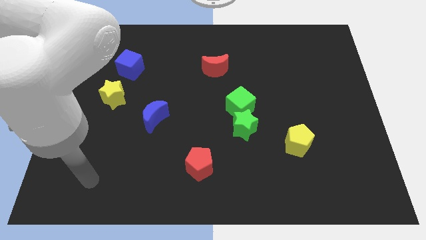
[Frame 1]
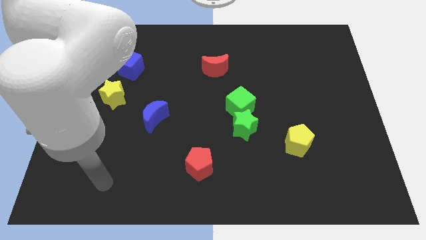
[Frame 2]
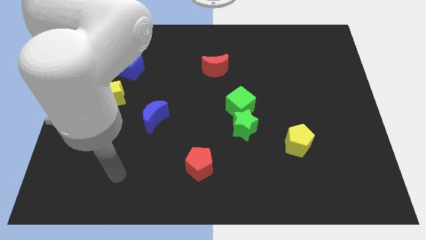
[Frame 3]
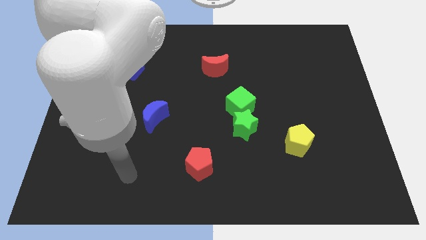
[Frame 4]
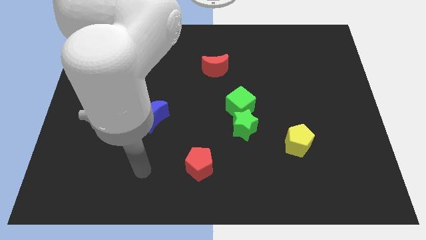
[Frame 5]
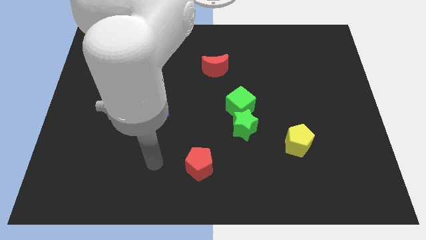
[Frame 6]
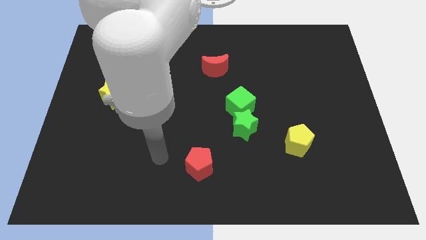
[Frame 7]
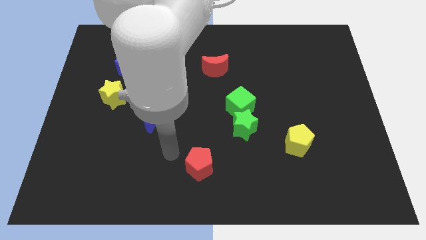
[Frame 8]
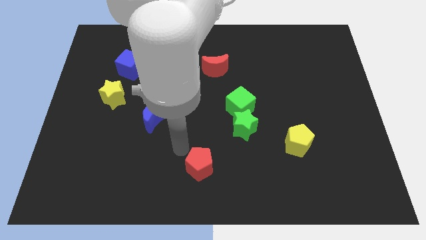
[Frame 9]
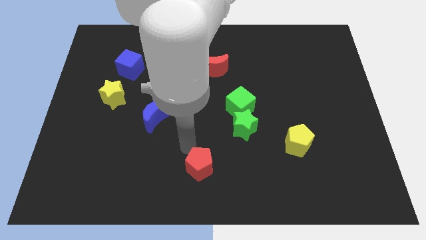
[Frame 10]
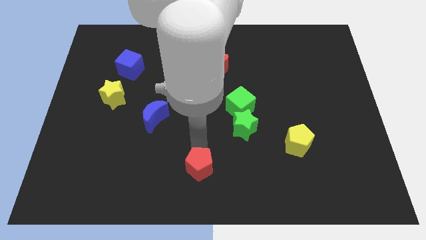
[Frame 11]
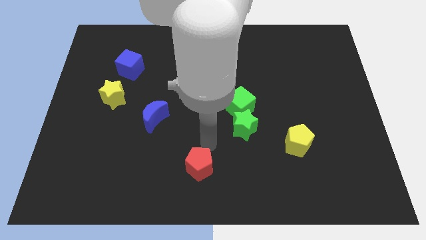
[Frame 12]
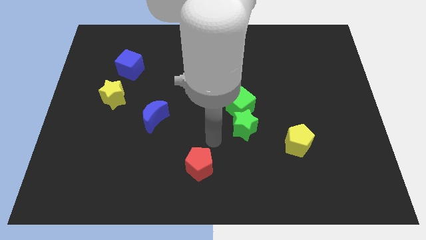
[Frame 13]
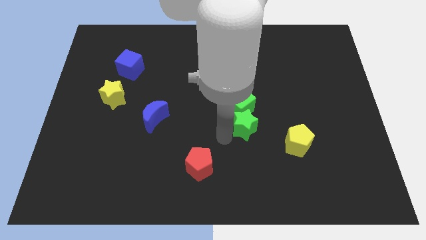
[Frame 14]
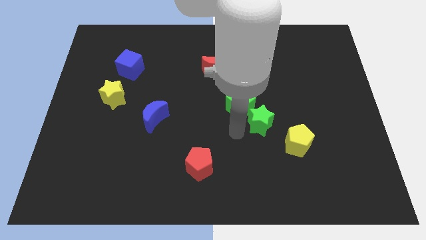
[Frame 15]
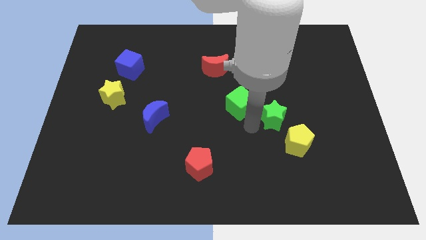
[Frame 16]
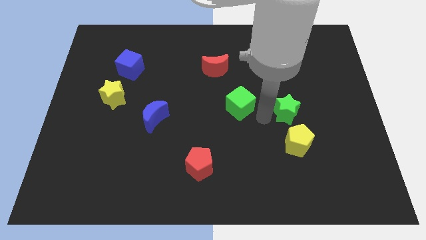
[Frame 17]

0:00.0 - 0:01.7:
separate the green cube from the green star

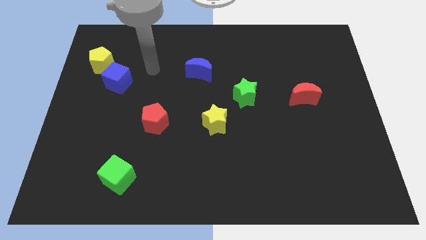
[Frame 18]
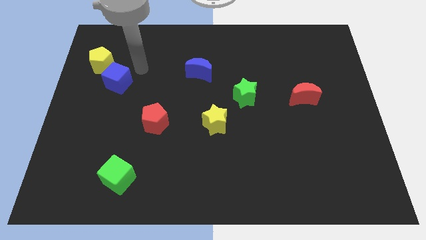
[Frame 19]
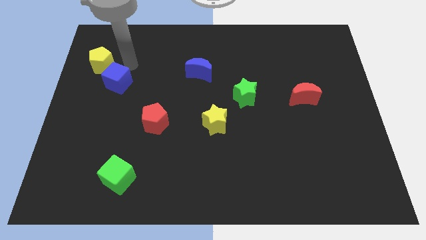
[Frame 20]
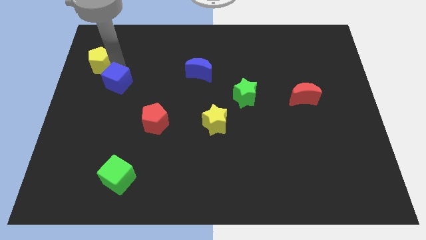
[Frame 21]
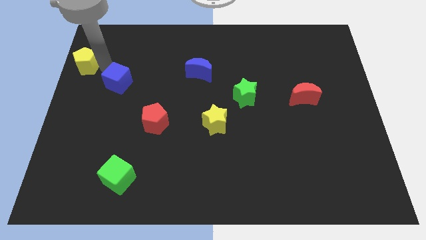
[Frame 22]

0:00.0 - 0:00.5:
pull the blue cube apart from the yellow pentagon

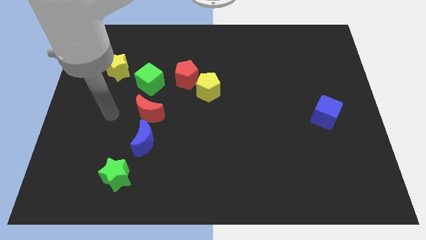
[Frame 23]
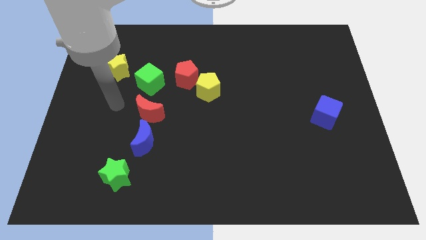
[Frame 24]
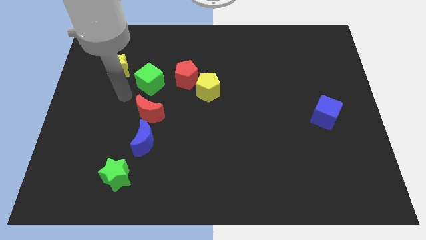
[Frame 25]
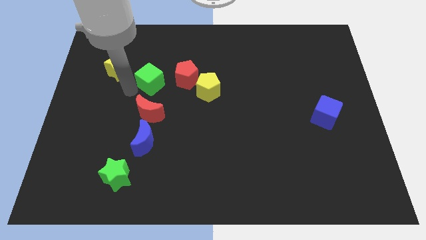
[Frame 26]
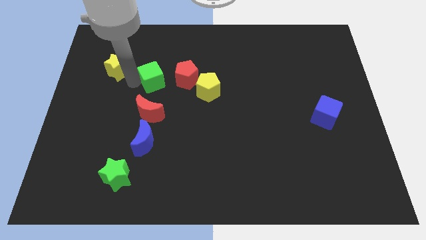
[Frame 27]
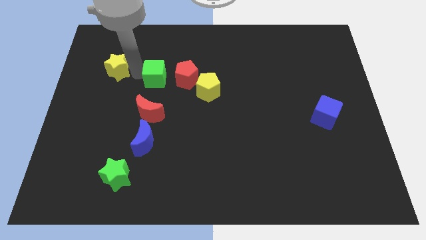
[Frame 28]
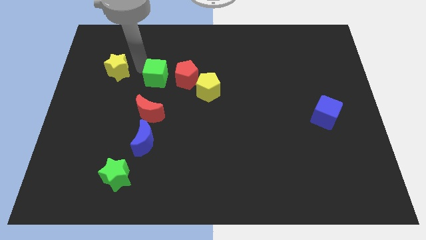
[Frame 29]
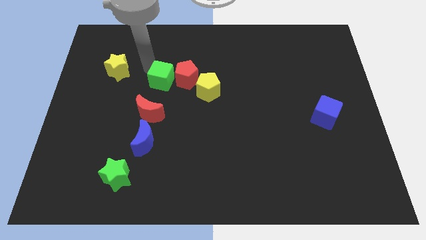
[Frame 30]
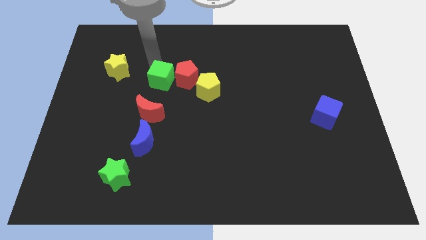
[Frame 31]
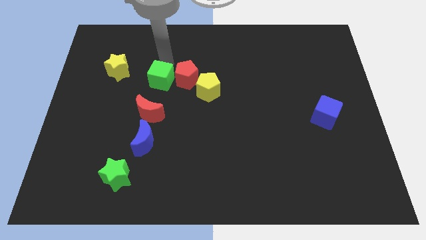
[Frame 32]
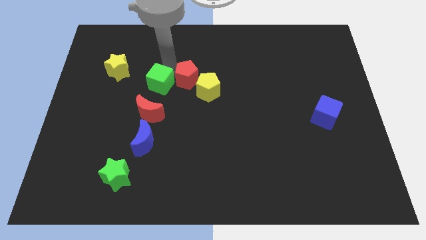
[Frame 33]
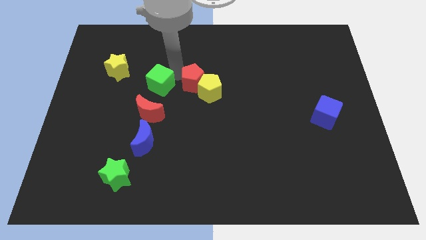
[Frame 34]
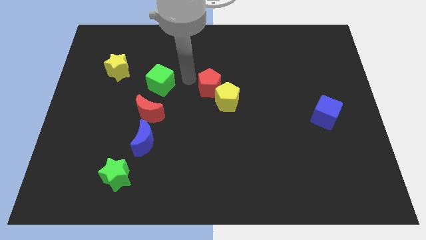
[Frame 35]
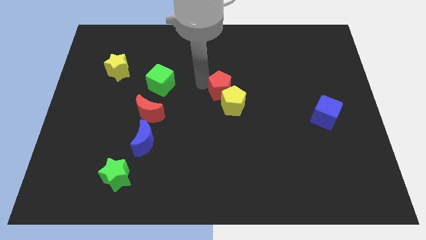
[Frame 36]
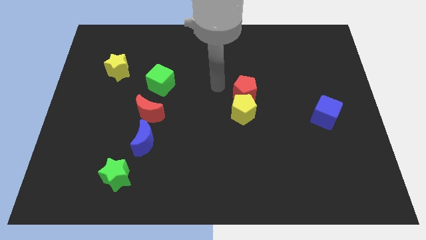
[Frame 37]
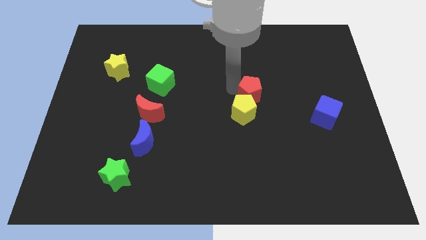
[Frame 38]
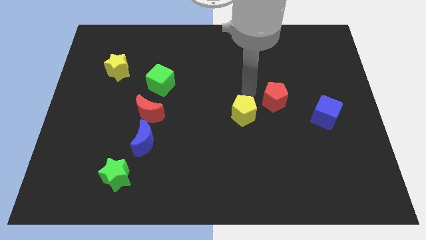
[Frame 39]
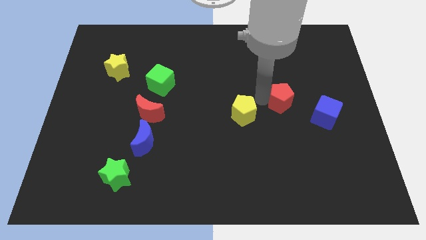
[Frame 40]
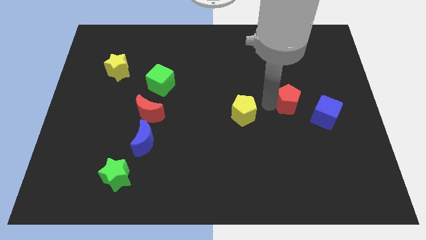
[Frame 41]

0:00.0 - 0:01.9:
move the yellow pentagon away from the red pentagon

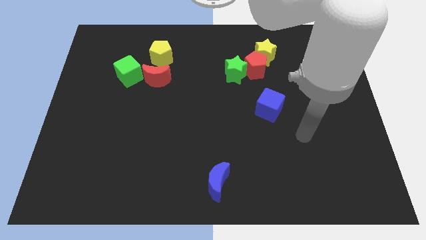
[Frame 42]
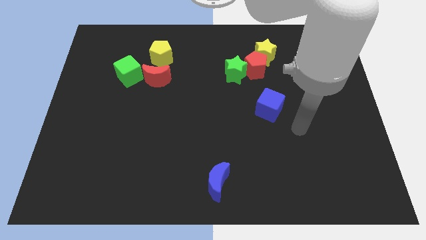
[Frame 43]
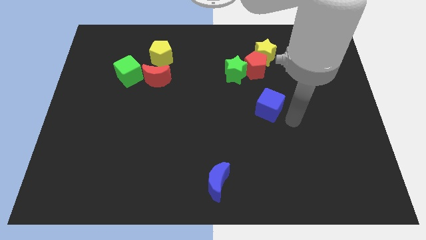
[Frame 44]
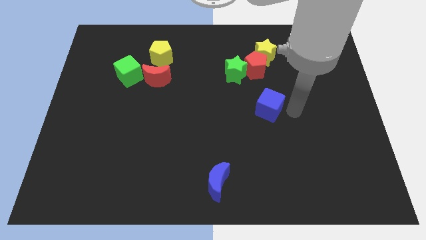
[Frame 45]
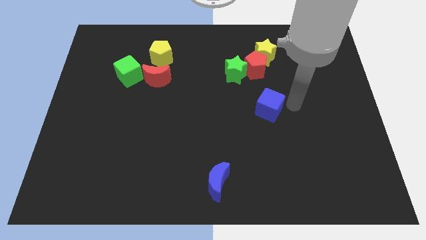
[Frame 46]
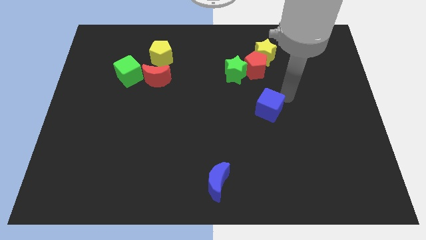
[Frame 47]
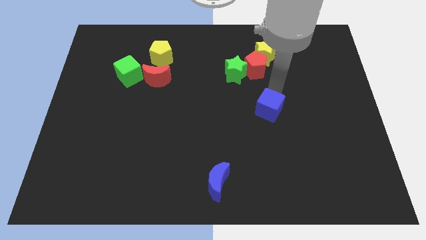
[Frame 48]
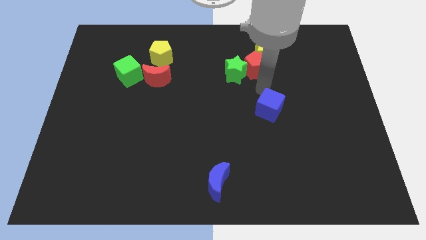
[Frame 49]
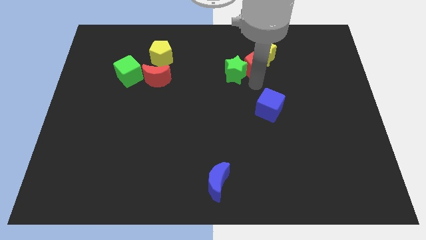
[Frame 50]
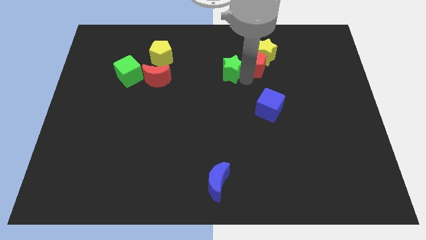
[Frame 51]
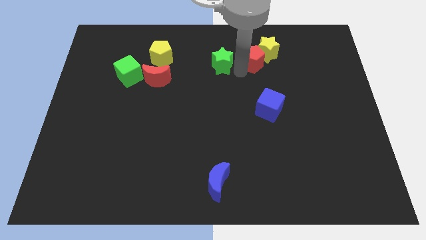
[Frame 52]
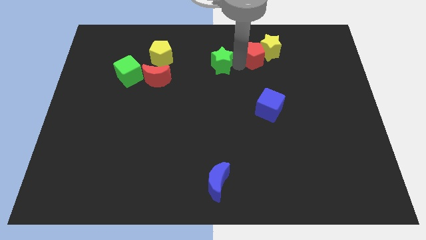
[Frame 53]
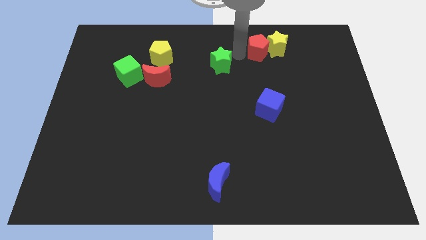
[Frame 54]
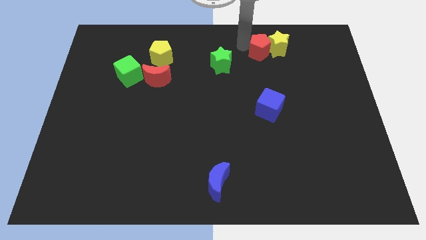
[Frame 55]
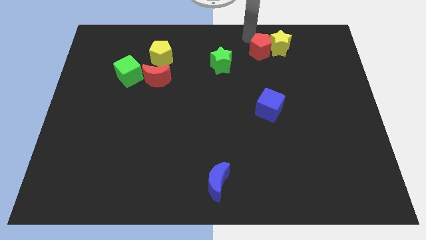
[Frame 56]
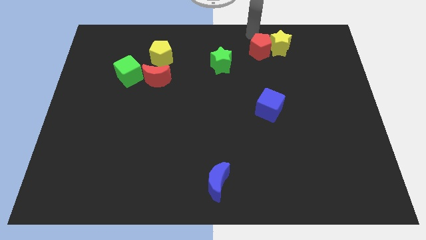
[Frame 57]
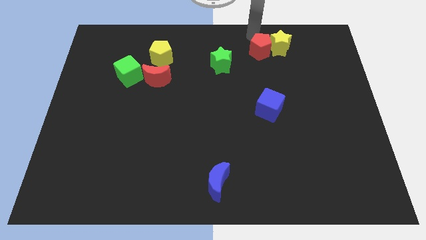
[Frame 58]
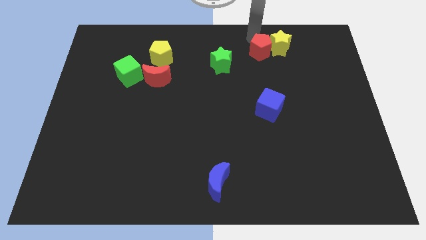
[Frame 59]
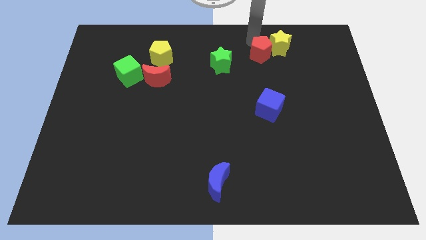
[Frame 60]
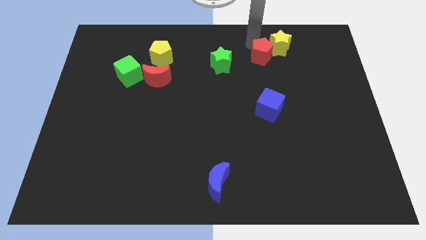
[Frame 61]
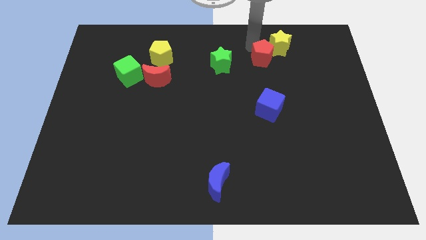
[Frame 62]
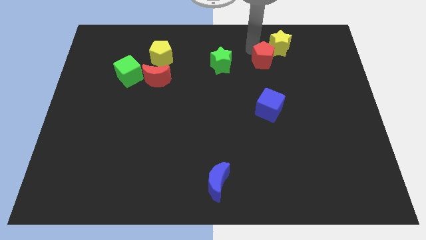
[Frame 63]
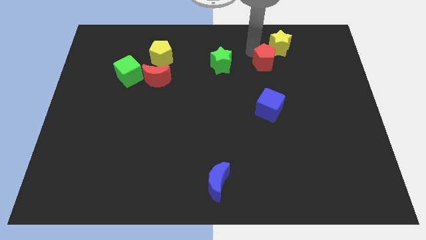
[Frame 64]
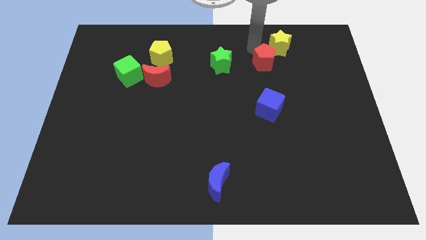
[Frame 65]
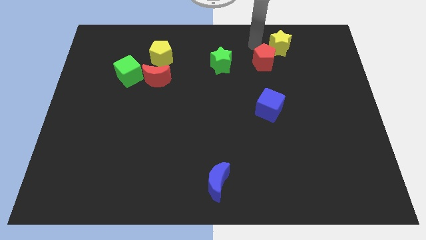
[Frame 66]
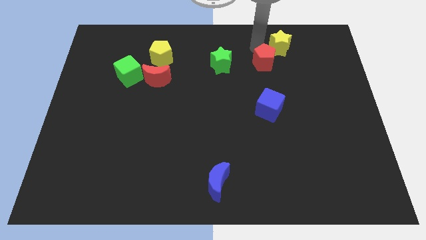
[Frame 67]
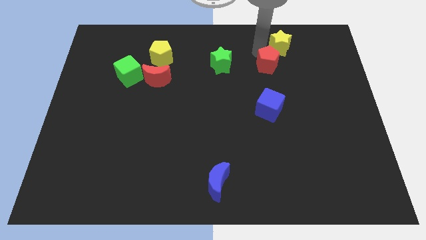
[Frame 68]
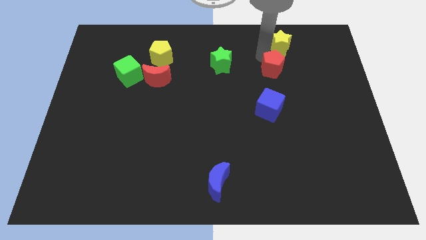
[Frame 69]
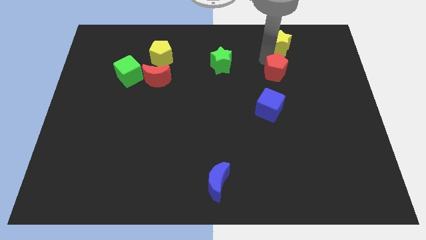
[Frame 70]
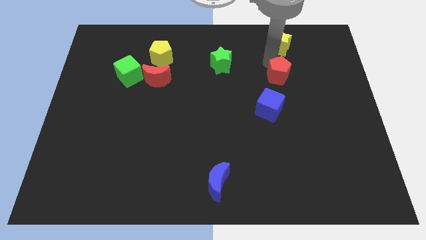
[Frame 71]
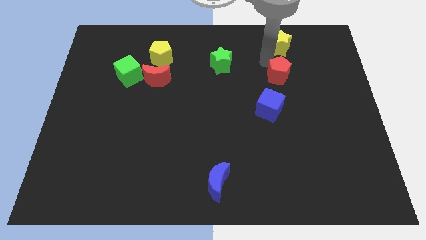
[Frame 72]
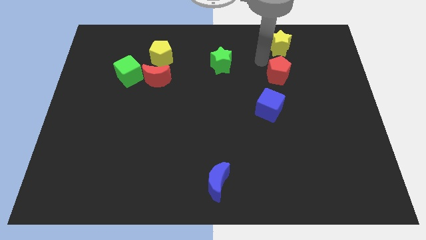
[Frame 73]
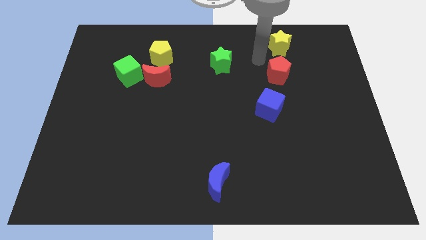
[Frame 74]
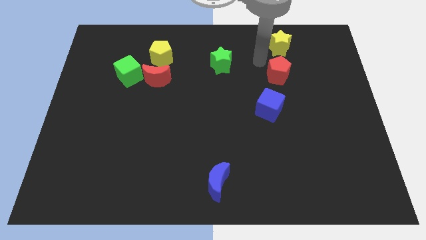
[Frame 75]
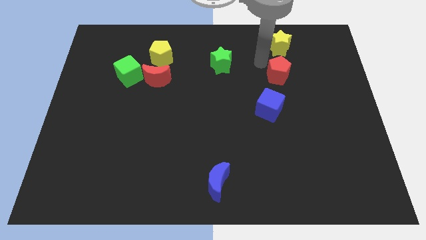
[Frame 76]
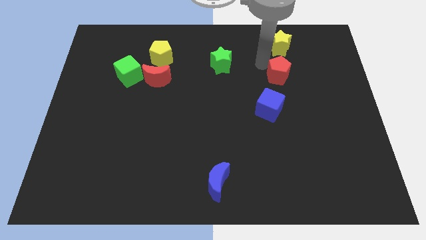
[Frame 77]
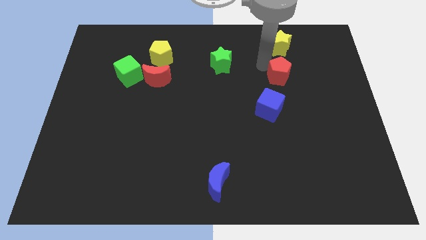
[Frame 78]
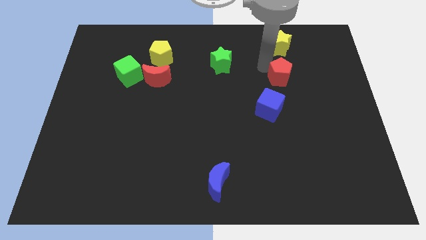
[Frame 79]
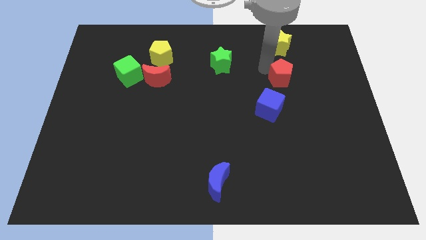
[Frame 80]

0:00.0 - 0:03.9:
separate the red pentagon from the green star and yellow star

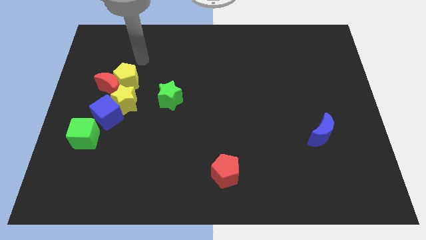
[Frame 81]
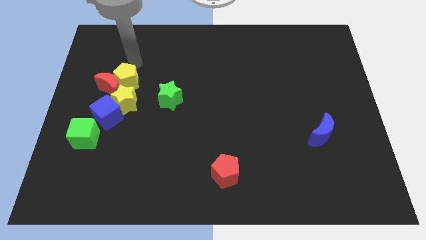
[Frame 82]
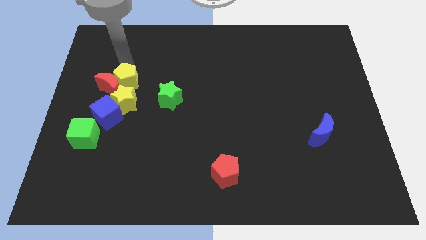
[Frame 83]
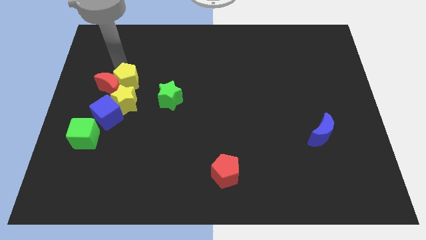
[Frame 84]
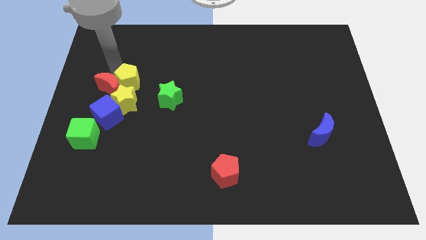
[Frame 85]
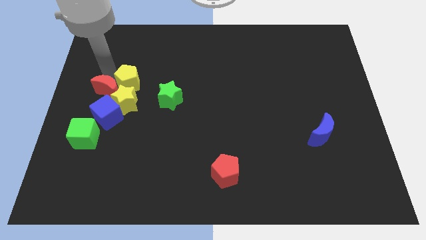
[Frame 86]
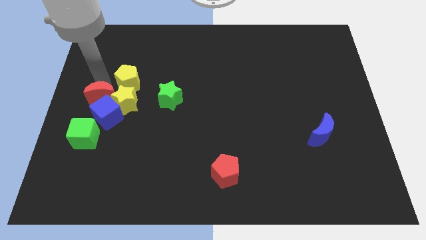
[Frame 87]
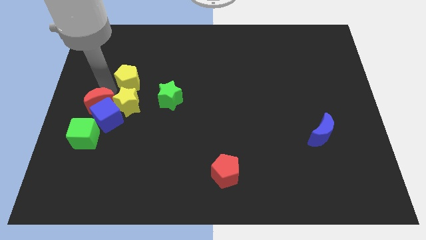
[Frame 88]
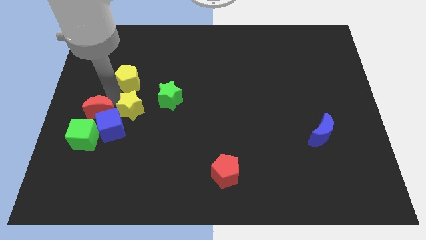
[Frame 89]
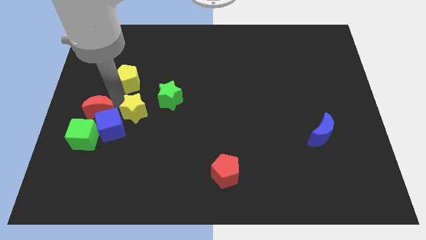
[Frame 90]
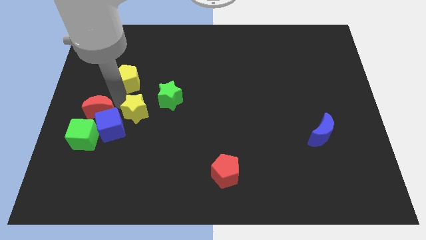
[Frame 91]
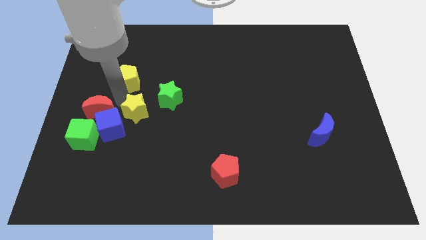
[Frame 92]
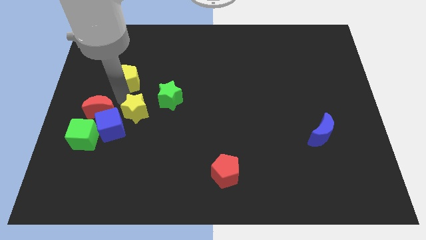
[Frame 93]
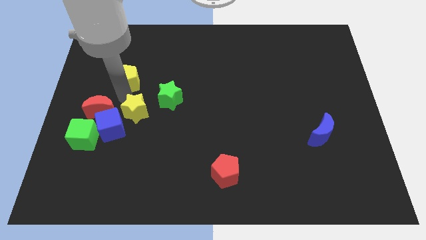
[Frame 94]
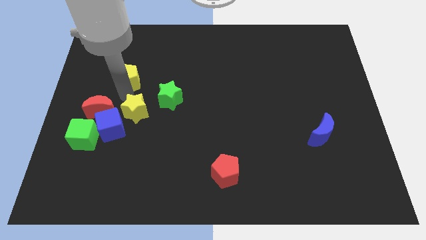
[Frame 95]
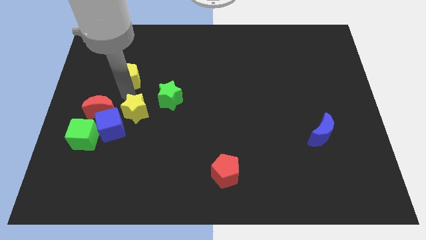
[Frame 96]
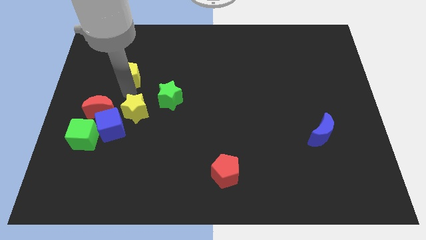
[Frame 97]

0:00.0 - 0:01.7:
pull the yellow pentagon apart from the red moon and yellow star
